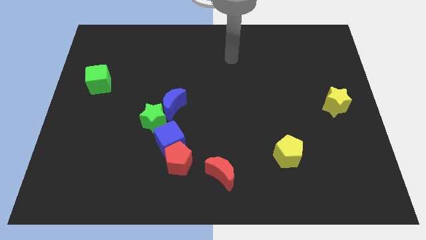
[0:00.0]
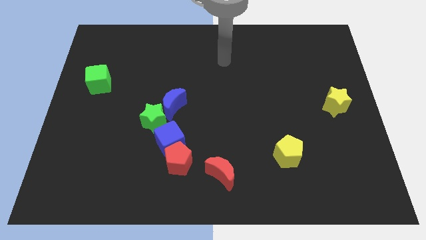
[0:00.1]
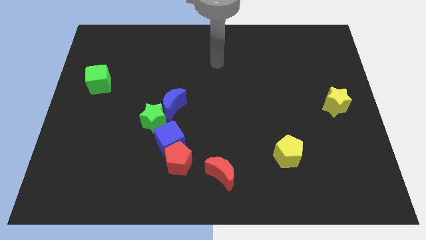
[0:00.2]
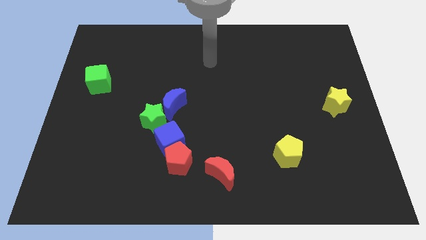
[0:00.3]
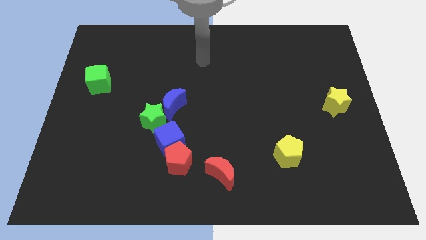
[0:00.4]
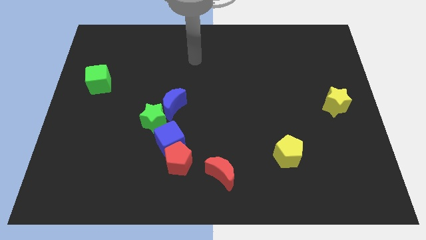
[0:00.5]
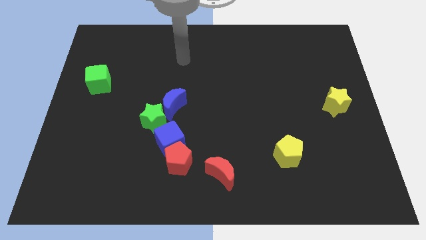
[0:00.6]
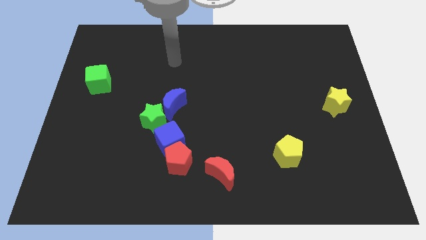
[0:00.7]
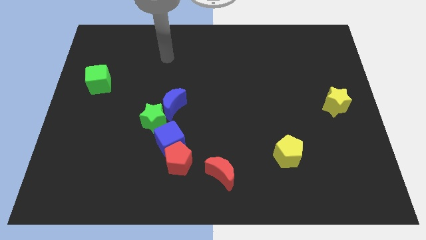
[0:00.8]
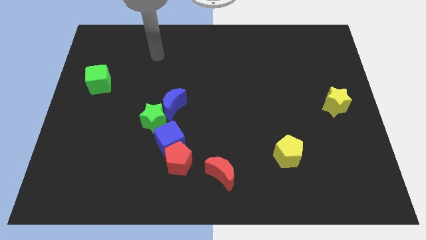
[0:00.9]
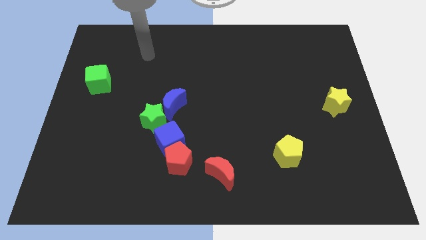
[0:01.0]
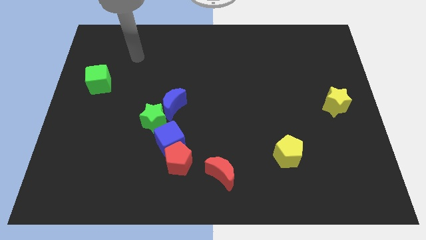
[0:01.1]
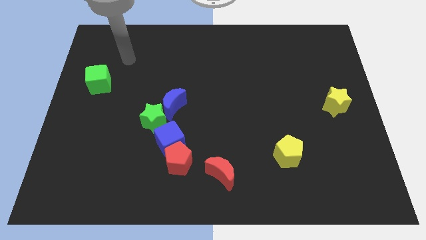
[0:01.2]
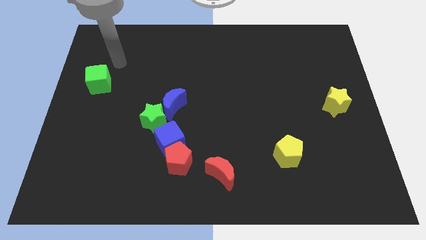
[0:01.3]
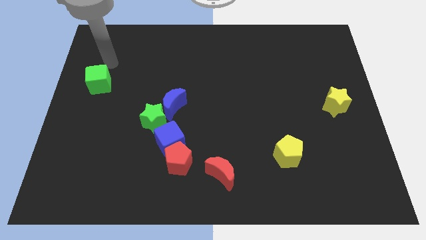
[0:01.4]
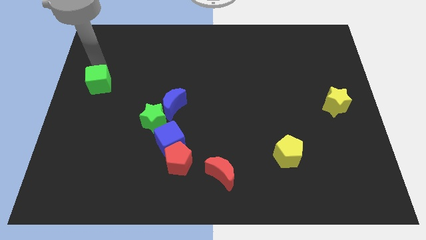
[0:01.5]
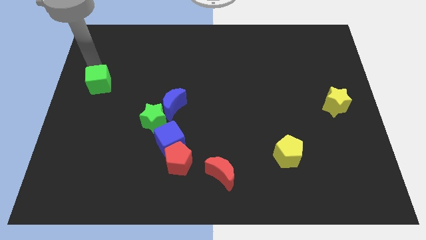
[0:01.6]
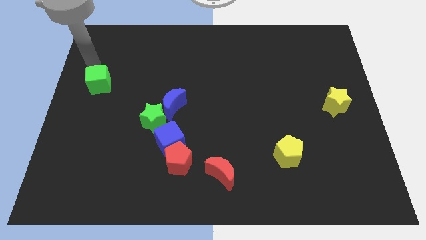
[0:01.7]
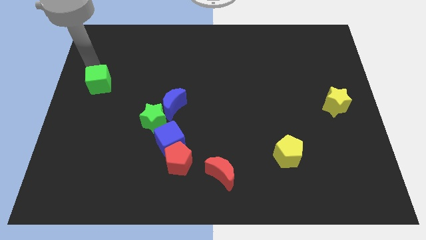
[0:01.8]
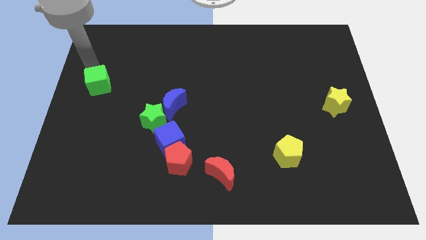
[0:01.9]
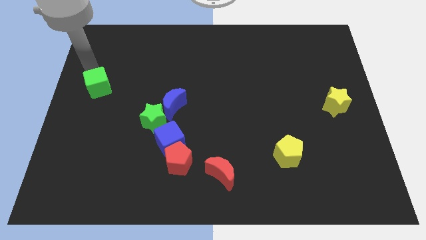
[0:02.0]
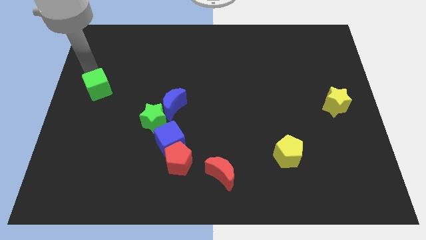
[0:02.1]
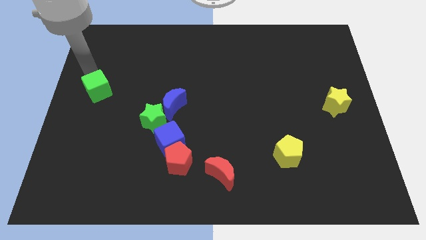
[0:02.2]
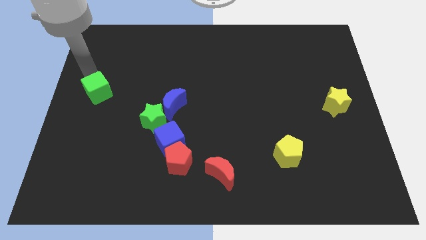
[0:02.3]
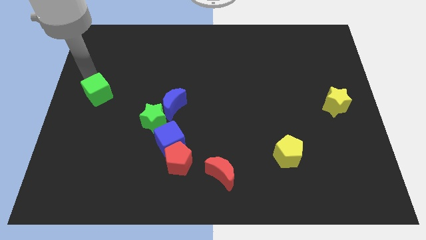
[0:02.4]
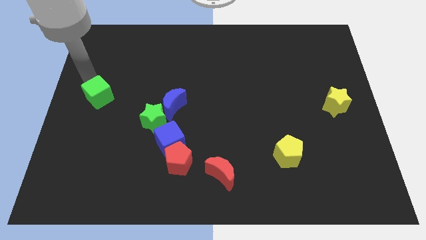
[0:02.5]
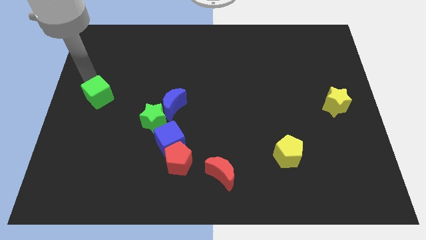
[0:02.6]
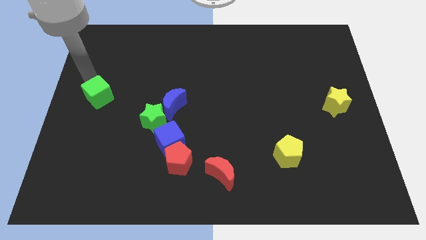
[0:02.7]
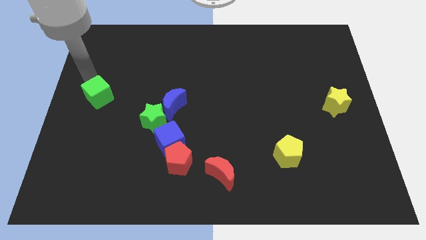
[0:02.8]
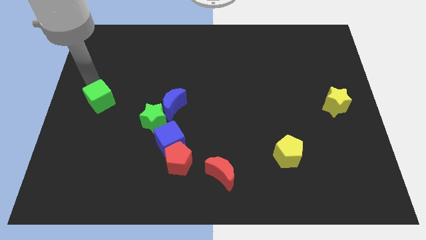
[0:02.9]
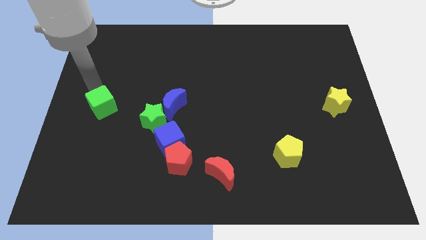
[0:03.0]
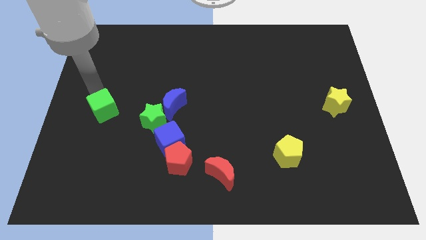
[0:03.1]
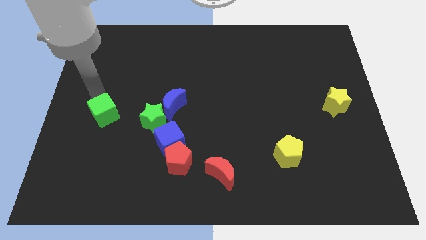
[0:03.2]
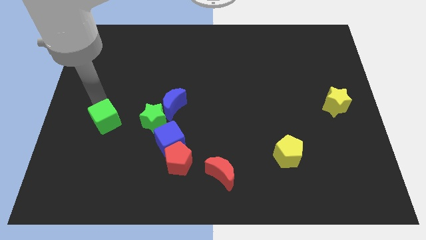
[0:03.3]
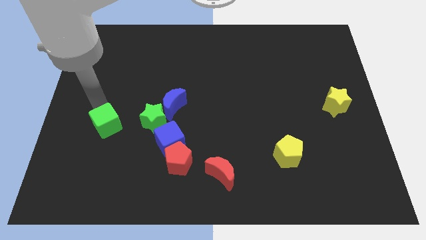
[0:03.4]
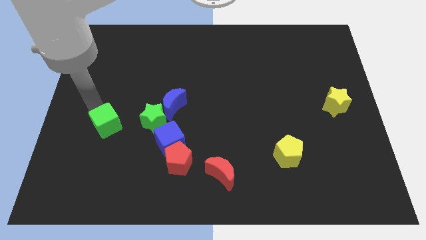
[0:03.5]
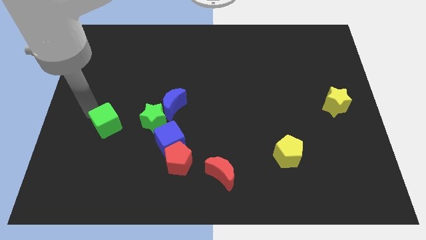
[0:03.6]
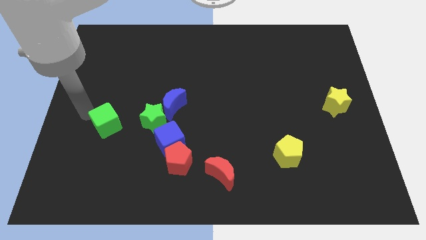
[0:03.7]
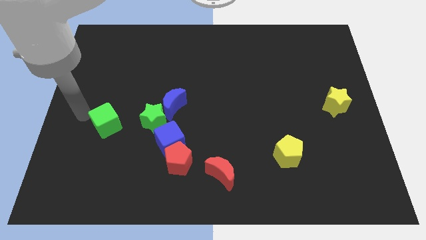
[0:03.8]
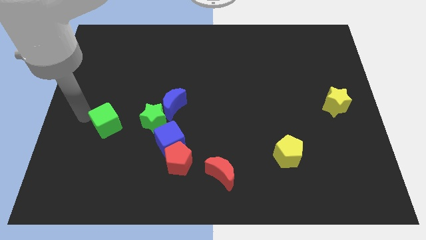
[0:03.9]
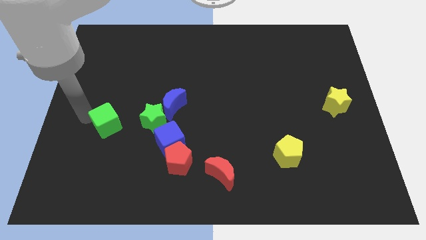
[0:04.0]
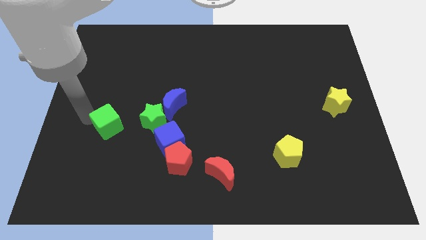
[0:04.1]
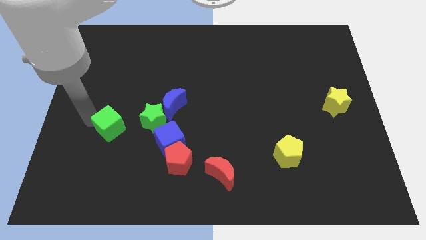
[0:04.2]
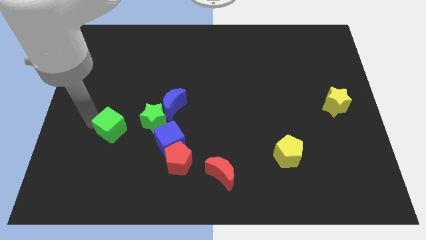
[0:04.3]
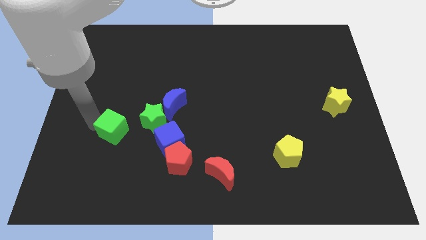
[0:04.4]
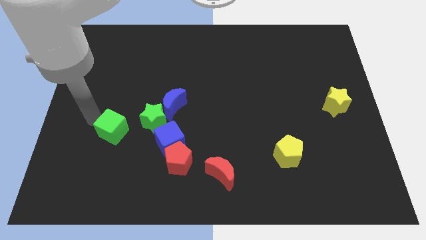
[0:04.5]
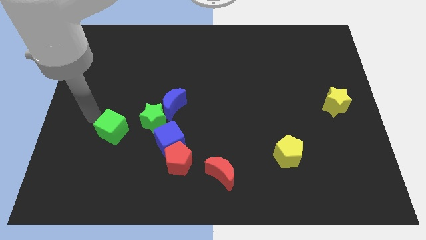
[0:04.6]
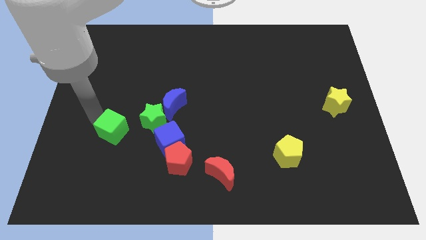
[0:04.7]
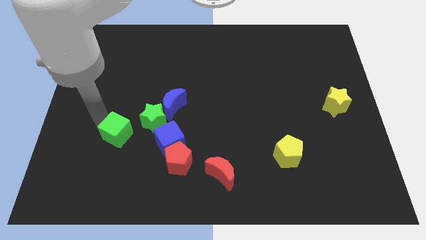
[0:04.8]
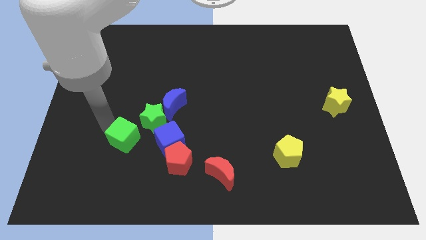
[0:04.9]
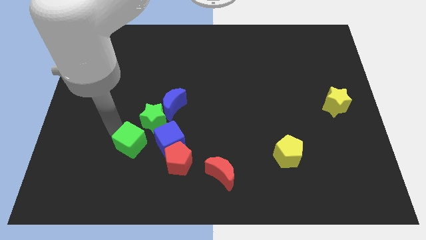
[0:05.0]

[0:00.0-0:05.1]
put the green cube to the bottom side of the green star

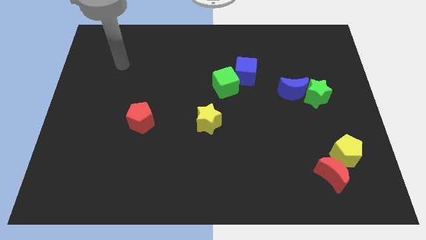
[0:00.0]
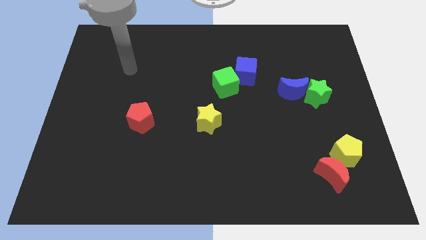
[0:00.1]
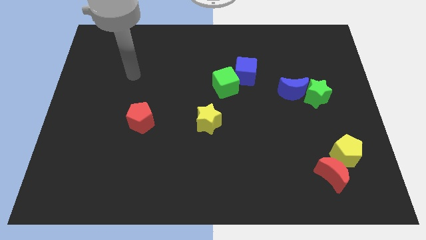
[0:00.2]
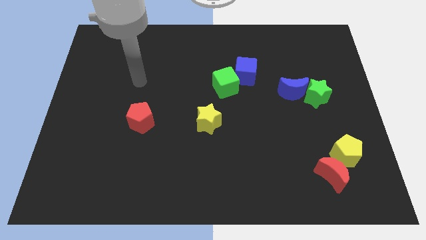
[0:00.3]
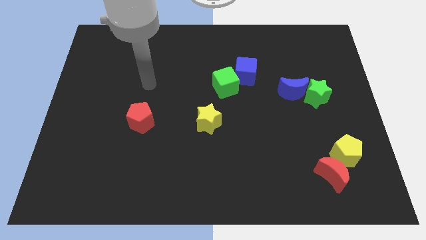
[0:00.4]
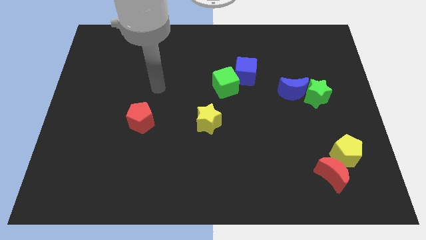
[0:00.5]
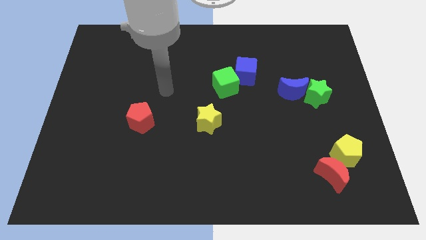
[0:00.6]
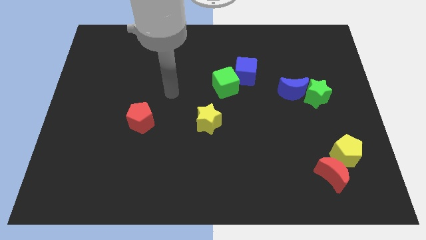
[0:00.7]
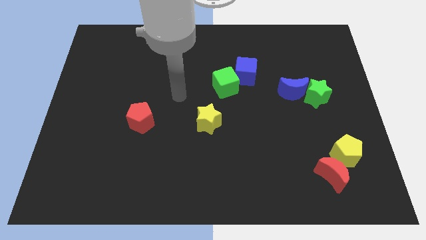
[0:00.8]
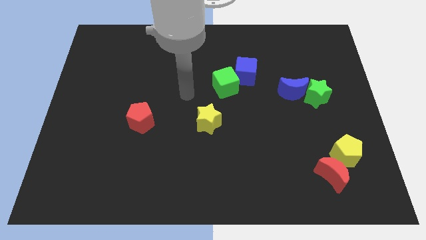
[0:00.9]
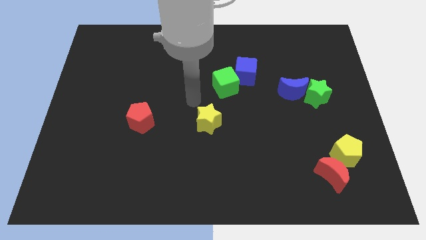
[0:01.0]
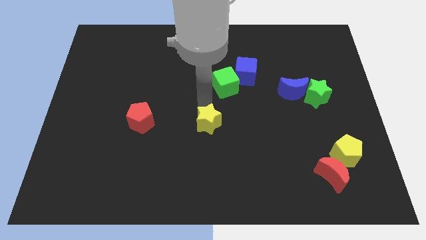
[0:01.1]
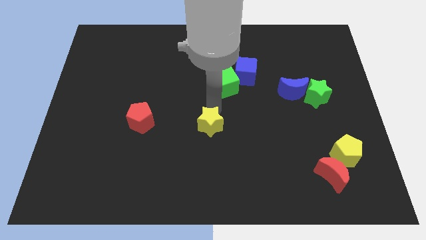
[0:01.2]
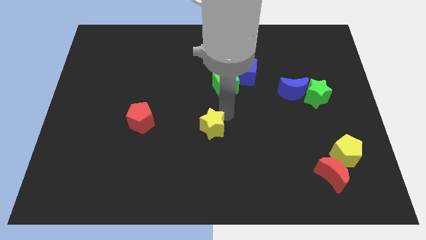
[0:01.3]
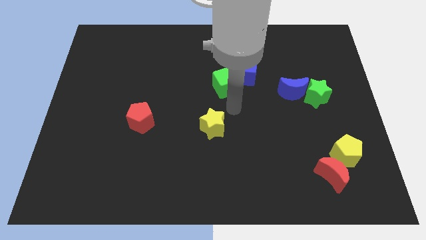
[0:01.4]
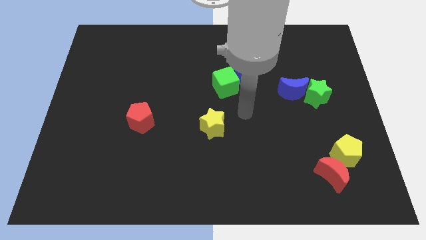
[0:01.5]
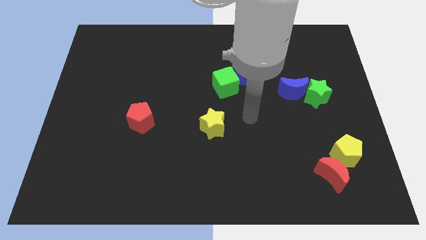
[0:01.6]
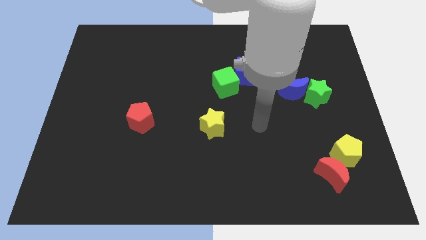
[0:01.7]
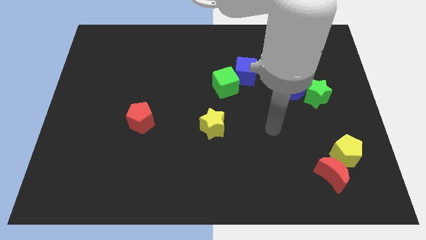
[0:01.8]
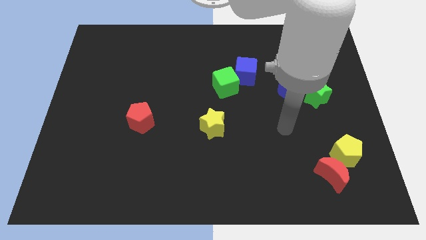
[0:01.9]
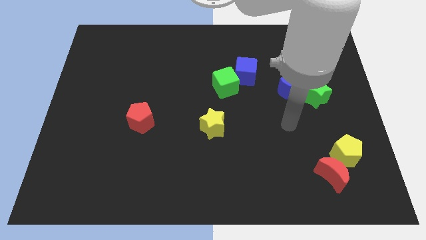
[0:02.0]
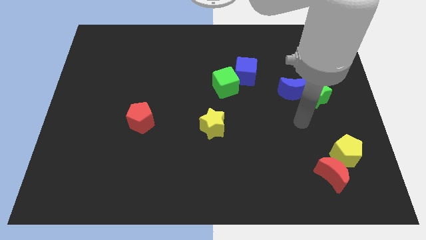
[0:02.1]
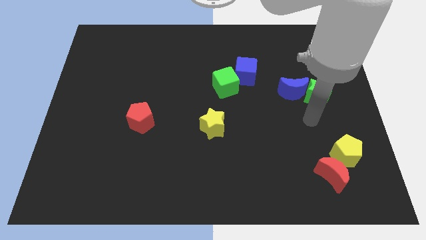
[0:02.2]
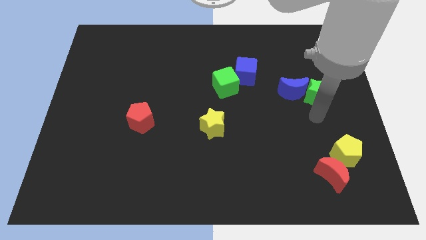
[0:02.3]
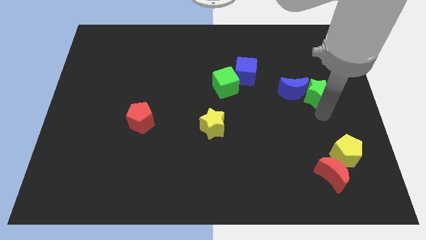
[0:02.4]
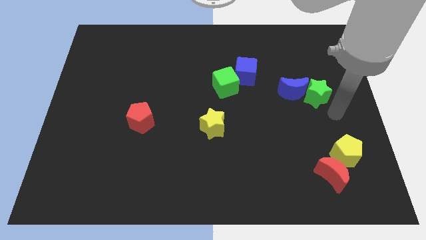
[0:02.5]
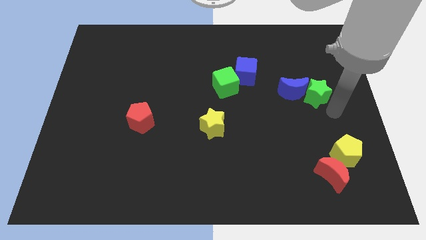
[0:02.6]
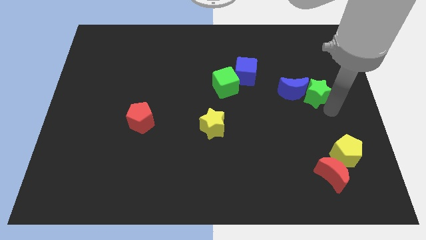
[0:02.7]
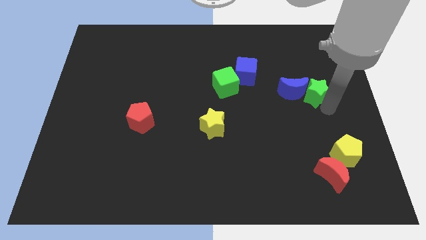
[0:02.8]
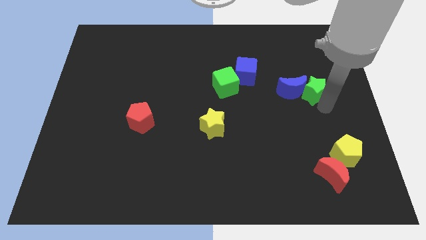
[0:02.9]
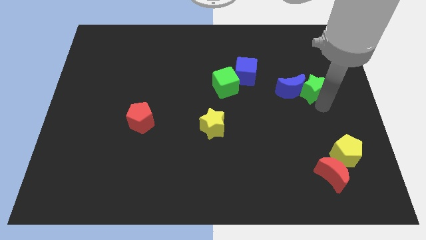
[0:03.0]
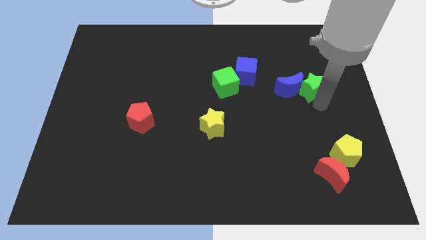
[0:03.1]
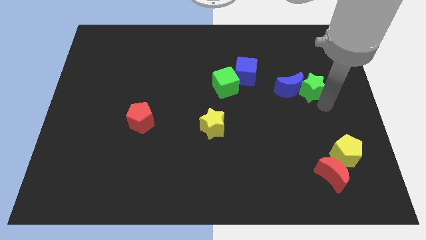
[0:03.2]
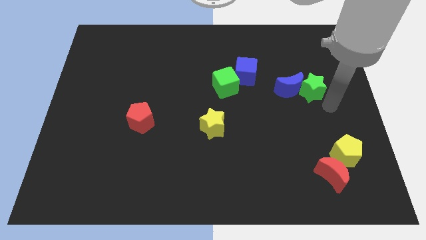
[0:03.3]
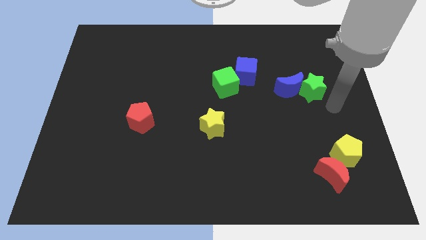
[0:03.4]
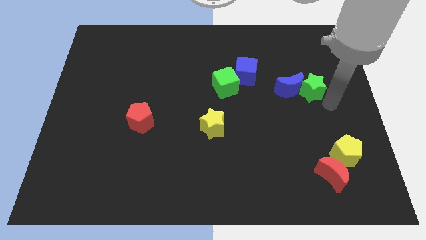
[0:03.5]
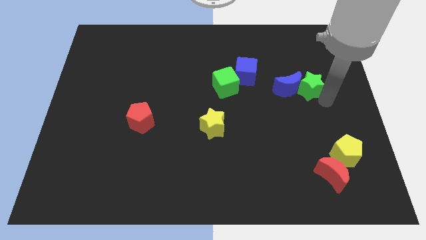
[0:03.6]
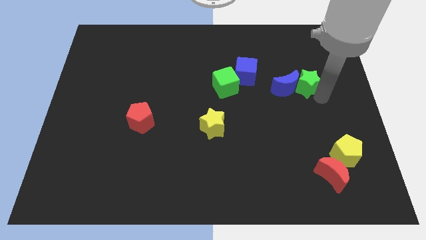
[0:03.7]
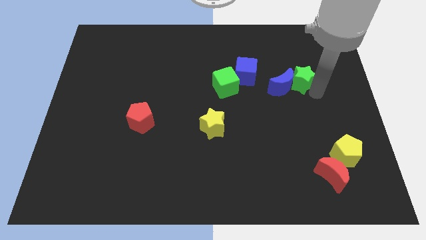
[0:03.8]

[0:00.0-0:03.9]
push the green star to the right of the blue cube
